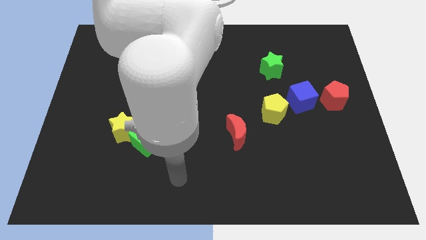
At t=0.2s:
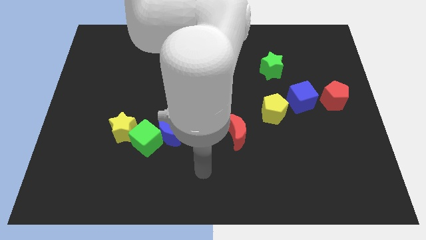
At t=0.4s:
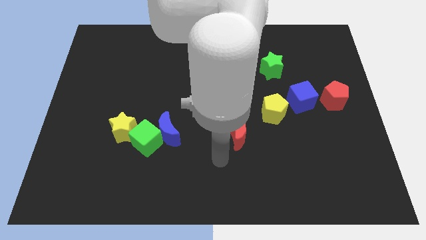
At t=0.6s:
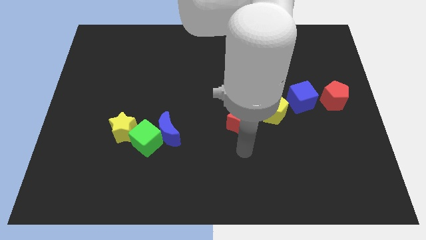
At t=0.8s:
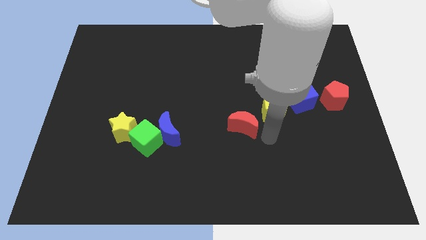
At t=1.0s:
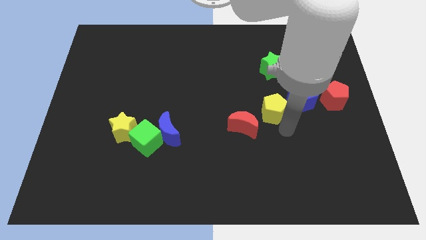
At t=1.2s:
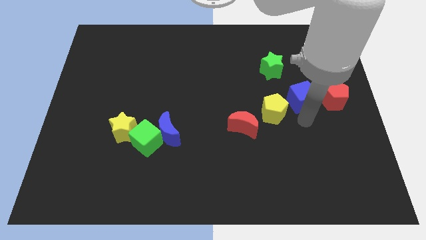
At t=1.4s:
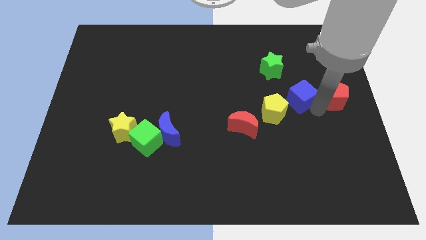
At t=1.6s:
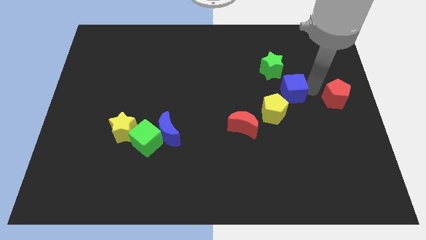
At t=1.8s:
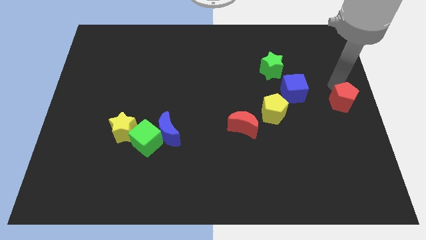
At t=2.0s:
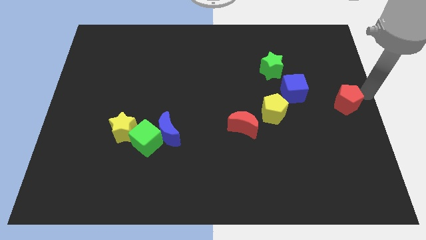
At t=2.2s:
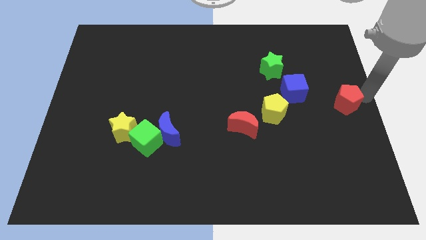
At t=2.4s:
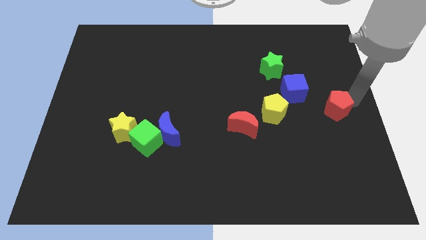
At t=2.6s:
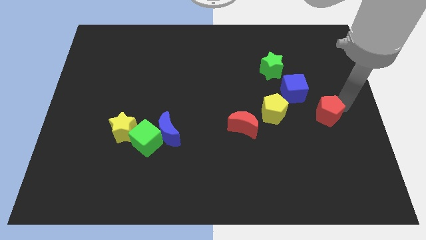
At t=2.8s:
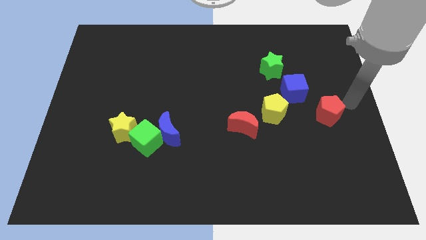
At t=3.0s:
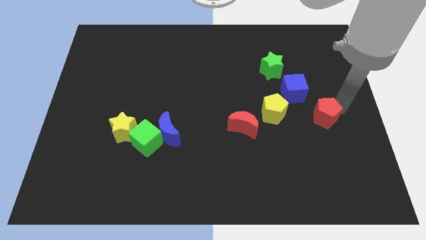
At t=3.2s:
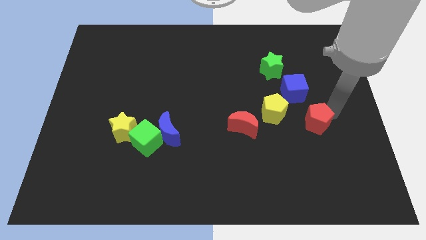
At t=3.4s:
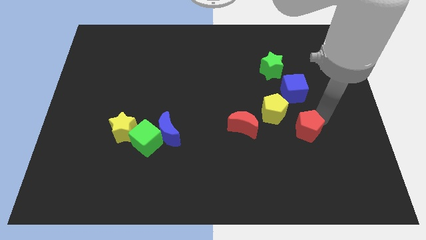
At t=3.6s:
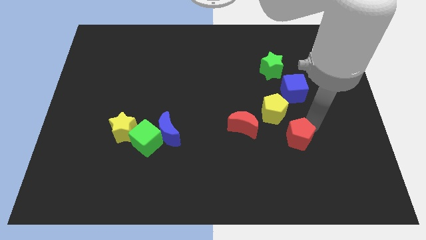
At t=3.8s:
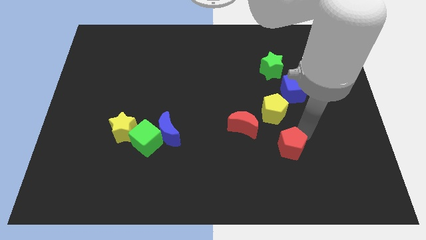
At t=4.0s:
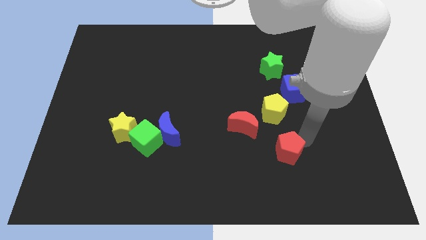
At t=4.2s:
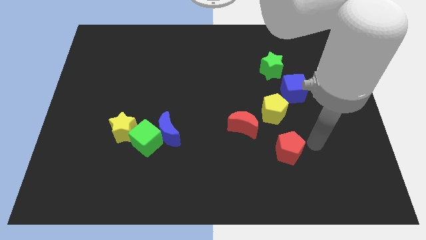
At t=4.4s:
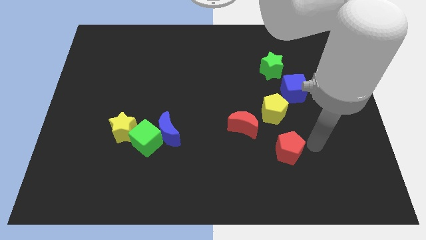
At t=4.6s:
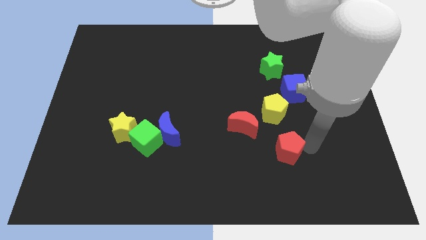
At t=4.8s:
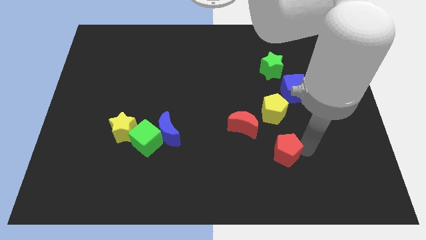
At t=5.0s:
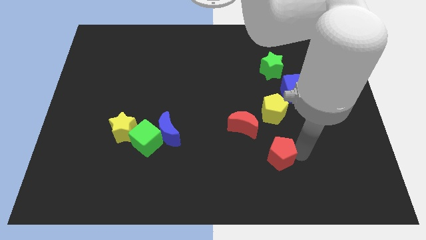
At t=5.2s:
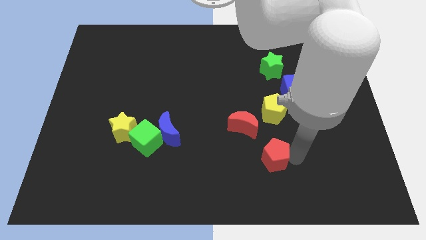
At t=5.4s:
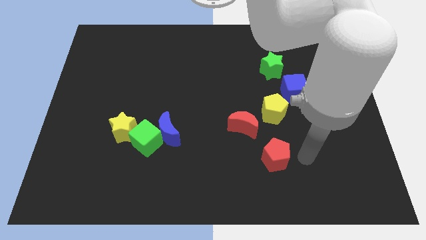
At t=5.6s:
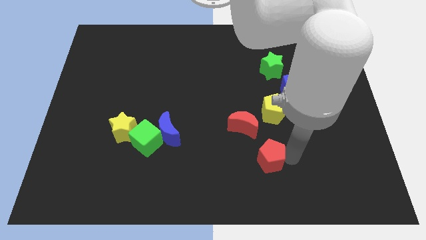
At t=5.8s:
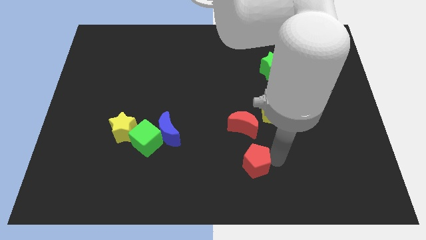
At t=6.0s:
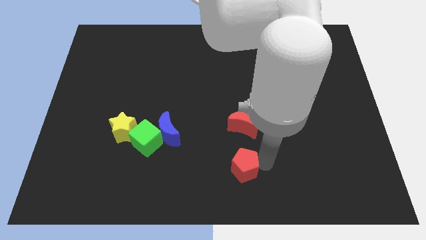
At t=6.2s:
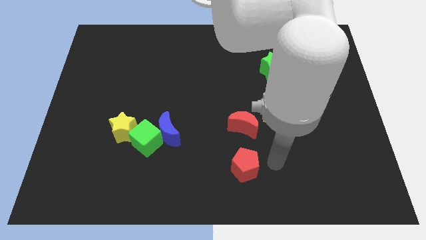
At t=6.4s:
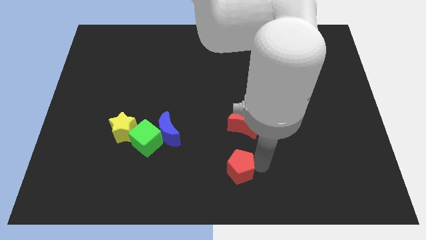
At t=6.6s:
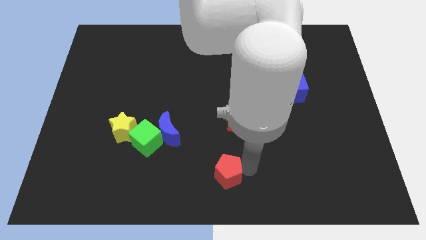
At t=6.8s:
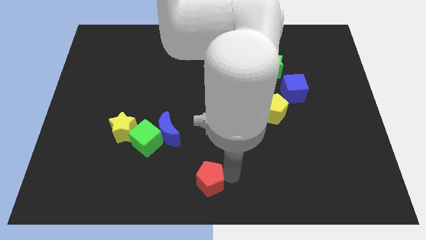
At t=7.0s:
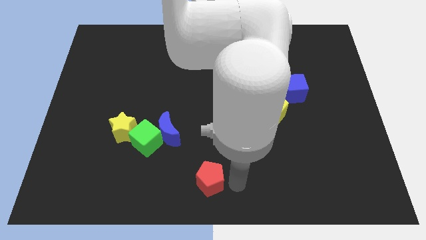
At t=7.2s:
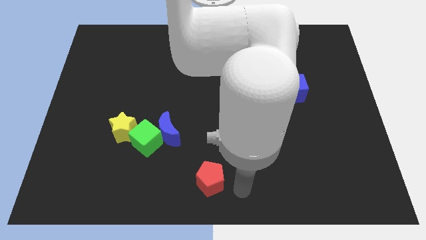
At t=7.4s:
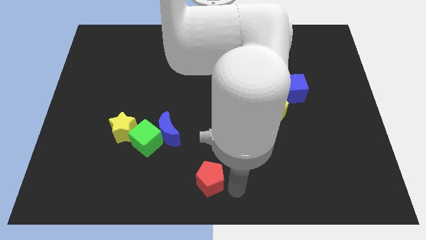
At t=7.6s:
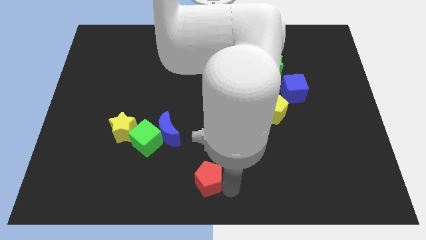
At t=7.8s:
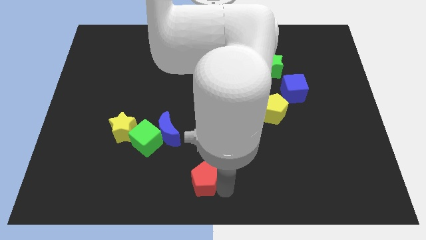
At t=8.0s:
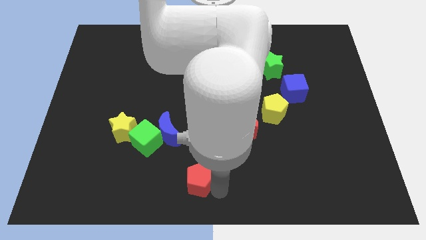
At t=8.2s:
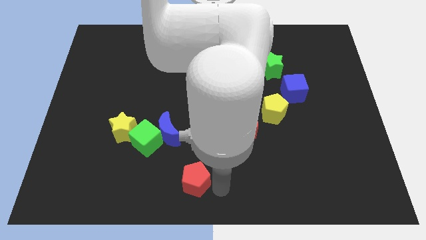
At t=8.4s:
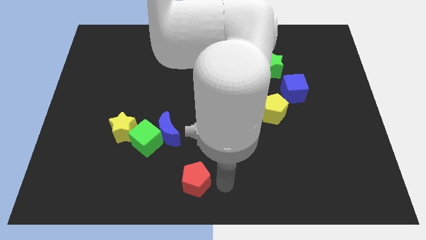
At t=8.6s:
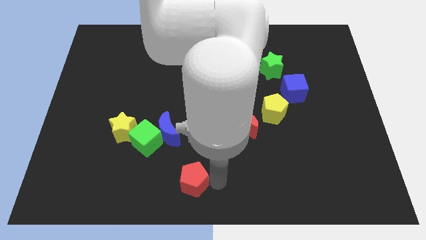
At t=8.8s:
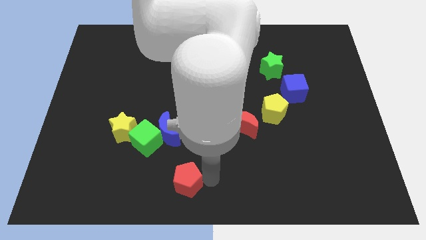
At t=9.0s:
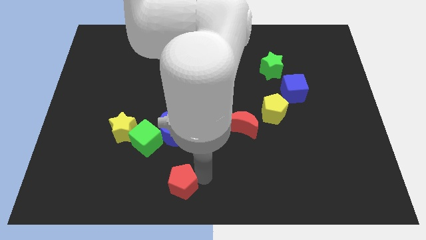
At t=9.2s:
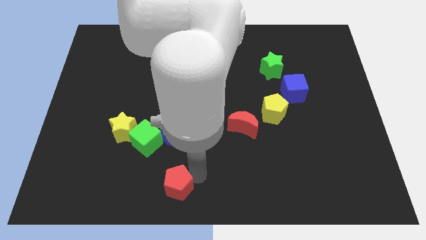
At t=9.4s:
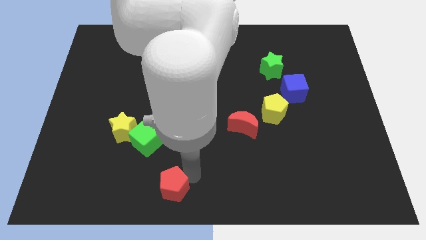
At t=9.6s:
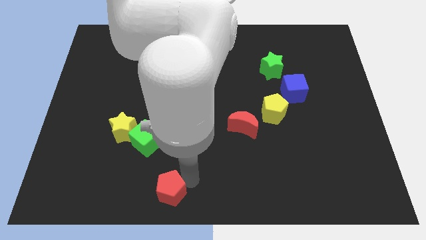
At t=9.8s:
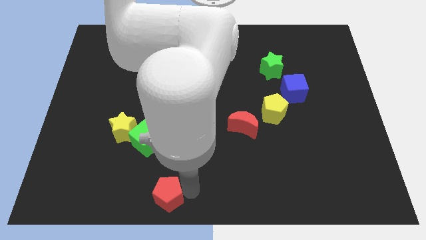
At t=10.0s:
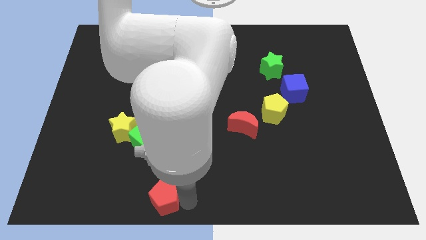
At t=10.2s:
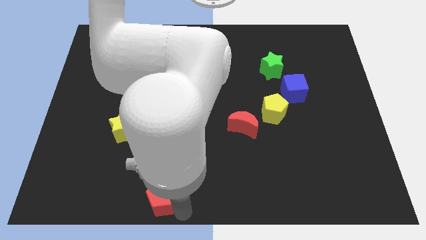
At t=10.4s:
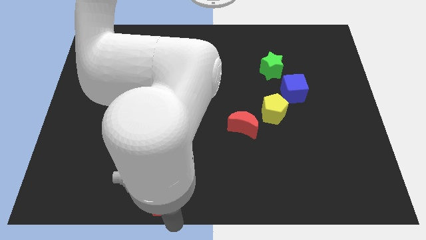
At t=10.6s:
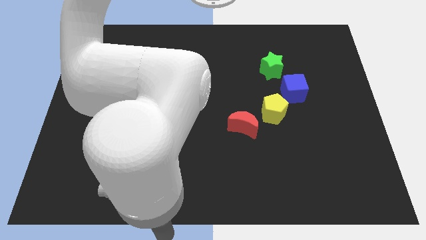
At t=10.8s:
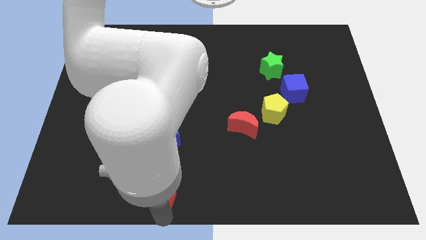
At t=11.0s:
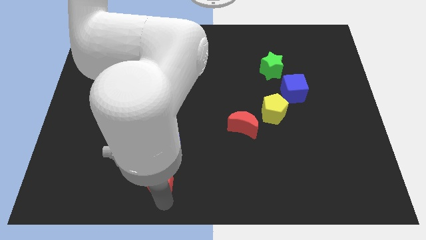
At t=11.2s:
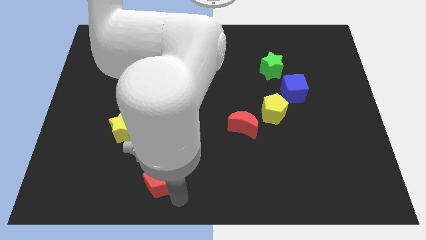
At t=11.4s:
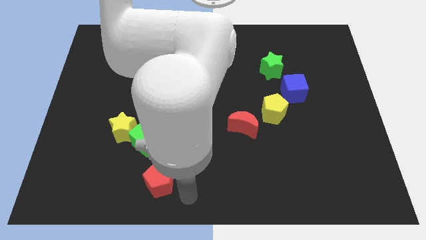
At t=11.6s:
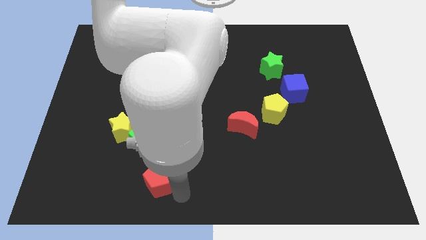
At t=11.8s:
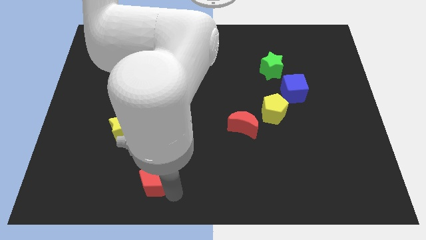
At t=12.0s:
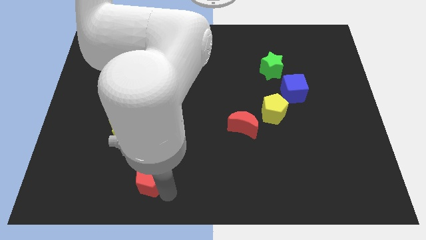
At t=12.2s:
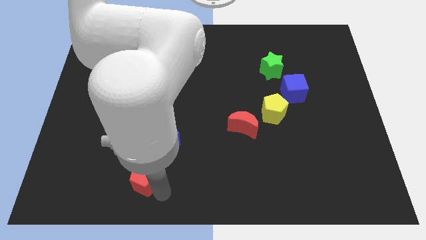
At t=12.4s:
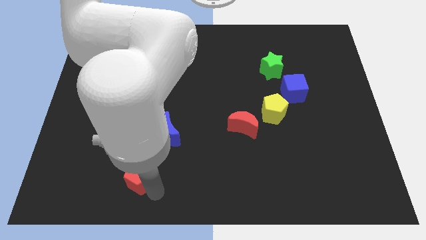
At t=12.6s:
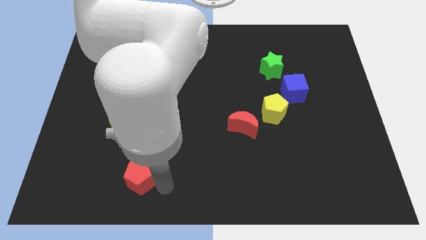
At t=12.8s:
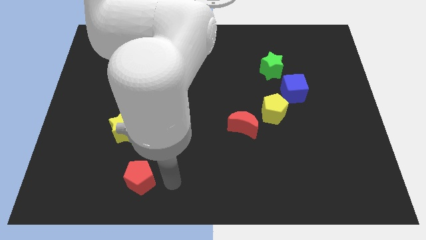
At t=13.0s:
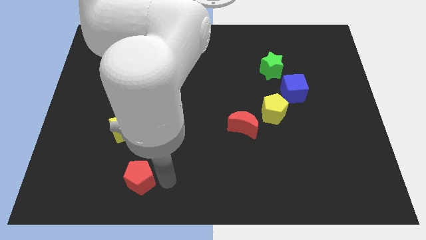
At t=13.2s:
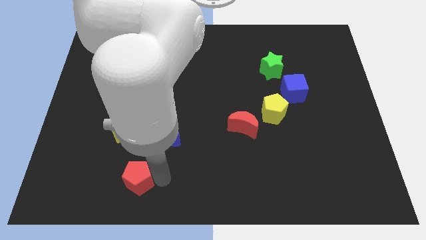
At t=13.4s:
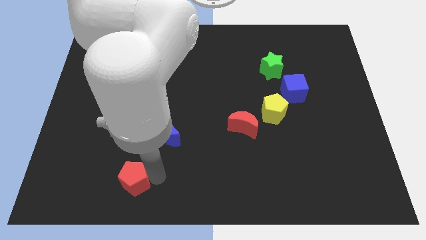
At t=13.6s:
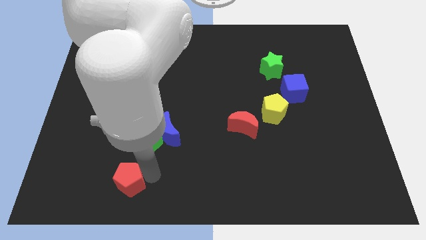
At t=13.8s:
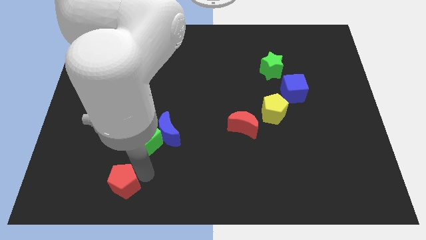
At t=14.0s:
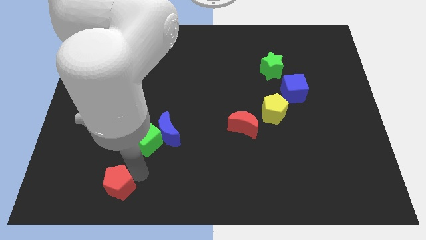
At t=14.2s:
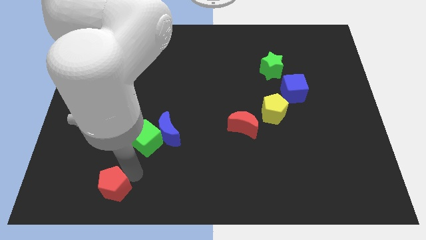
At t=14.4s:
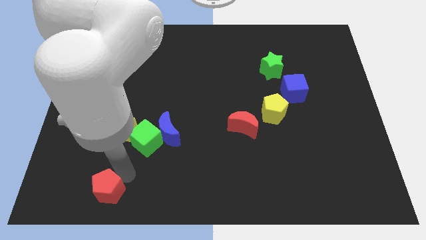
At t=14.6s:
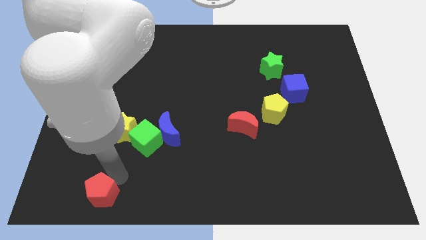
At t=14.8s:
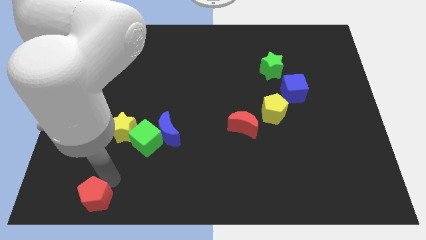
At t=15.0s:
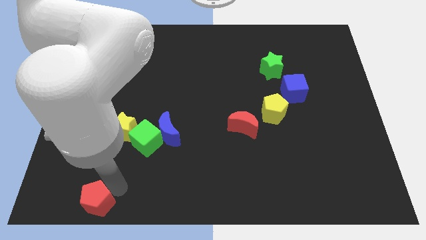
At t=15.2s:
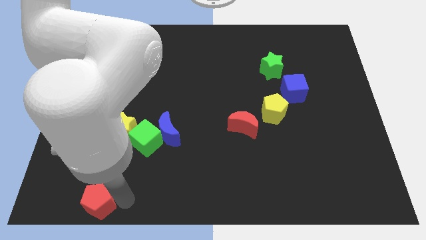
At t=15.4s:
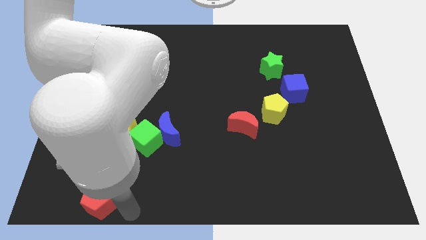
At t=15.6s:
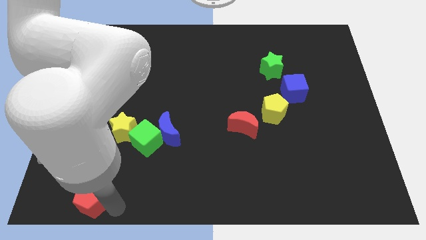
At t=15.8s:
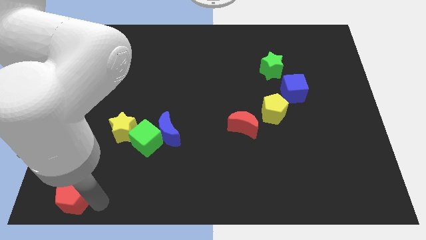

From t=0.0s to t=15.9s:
put the red pentagon to the bottom left corner
